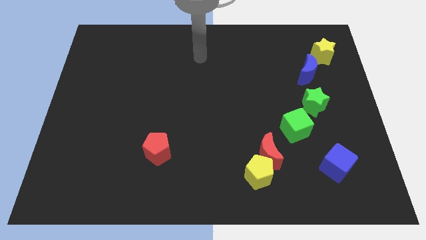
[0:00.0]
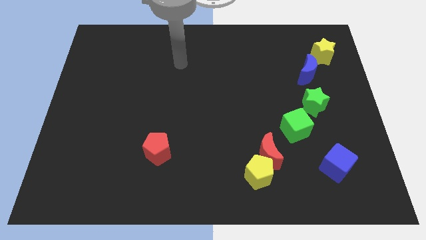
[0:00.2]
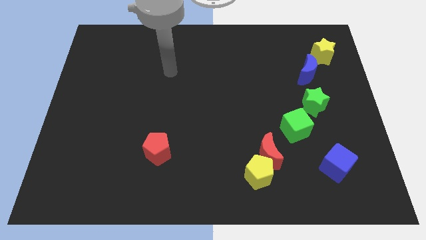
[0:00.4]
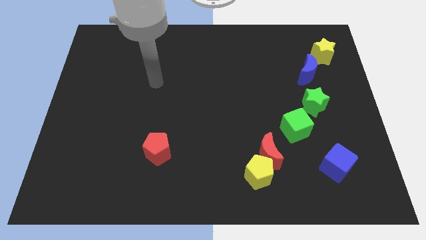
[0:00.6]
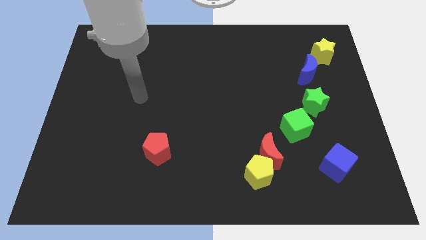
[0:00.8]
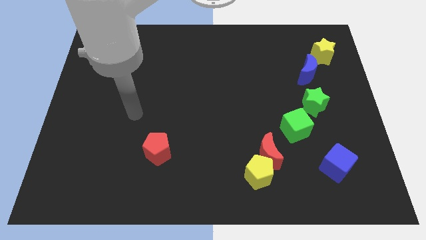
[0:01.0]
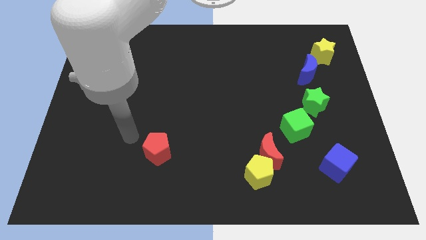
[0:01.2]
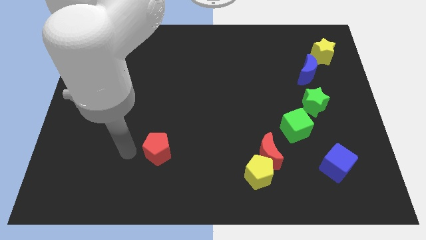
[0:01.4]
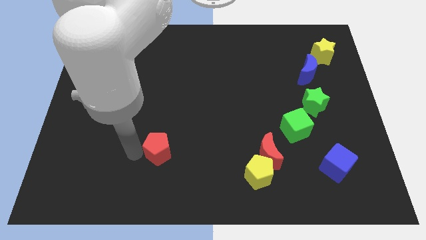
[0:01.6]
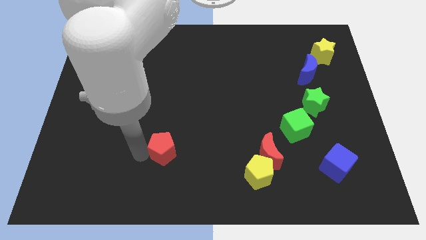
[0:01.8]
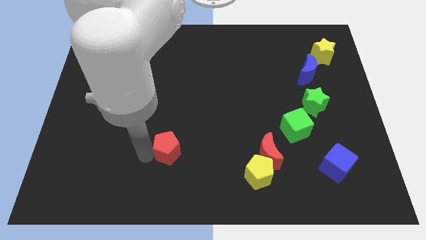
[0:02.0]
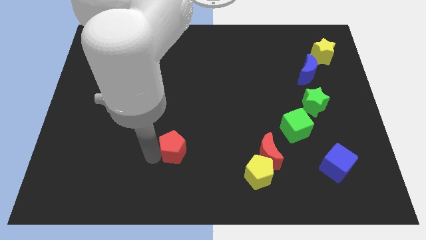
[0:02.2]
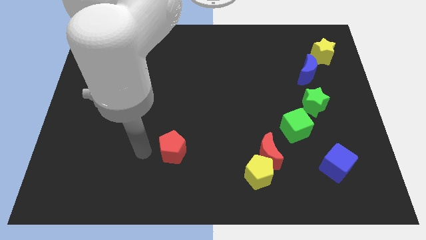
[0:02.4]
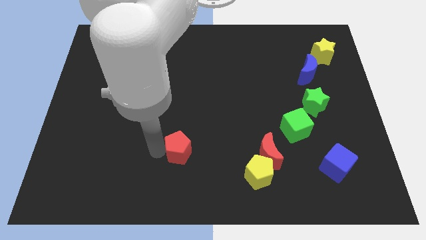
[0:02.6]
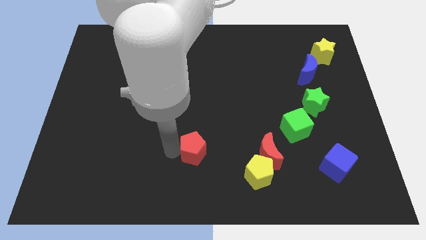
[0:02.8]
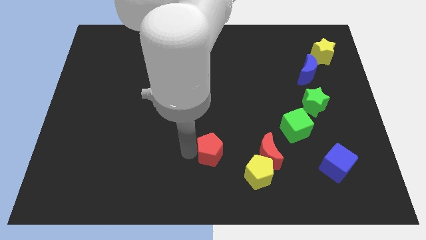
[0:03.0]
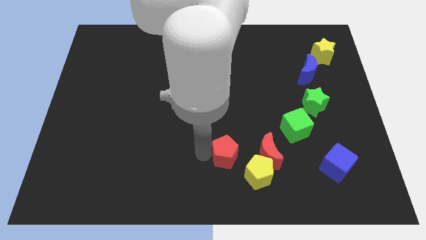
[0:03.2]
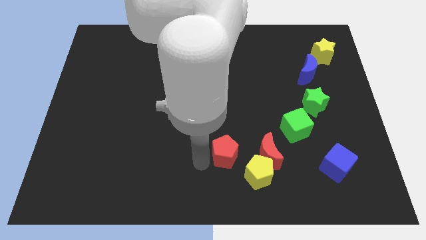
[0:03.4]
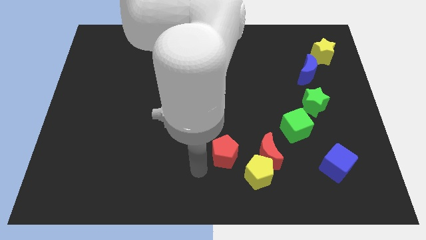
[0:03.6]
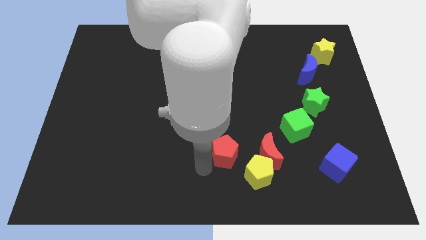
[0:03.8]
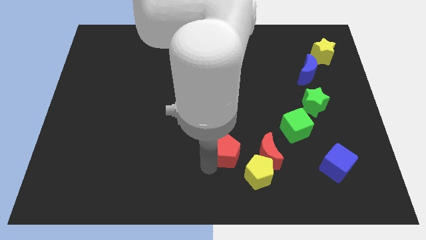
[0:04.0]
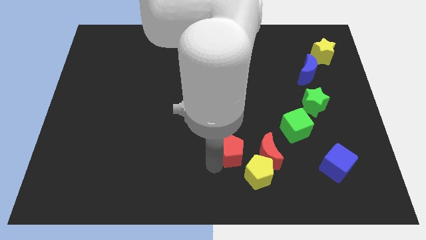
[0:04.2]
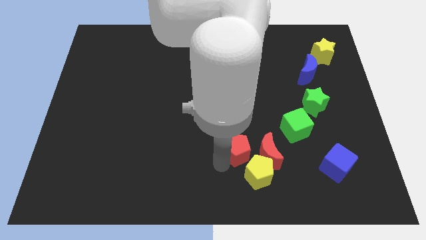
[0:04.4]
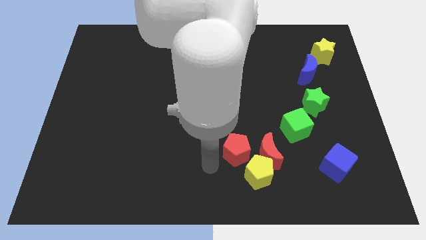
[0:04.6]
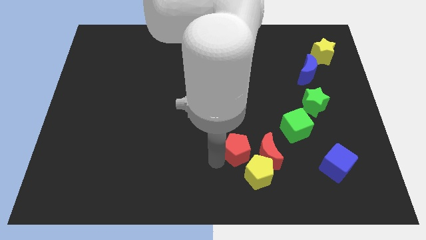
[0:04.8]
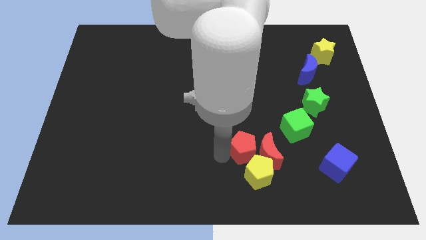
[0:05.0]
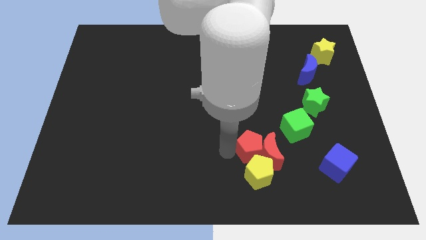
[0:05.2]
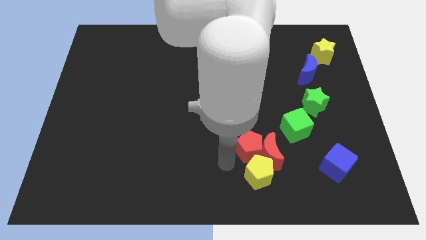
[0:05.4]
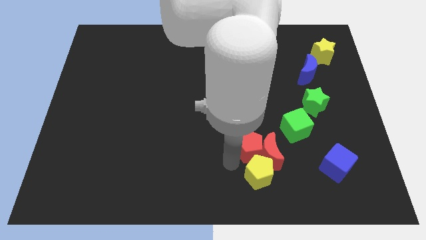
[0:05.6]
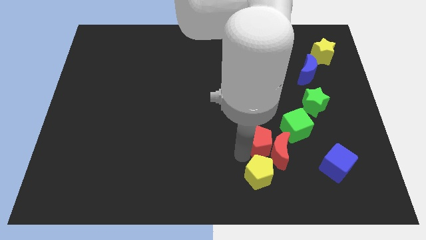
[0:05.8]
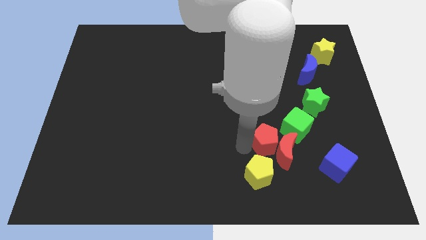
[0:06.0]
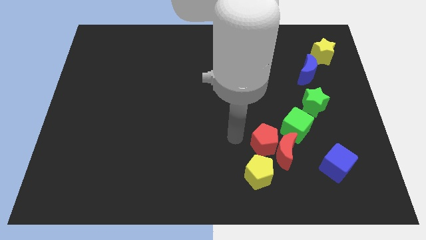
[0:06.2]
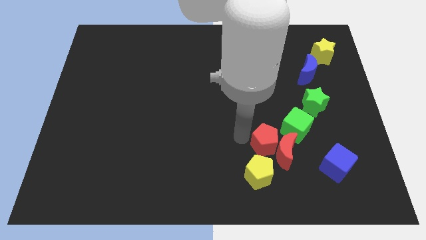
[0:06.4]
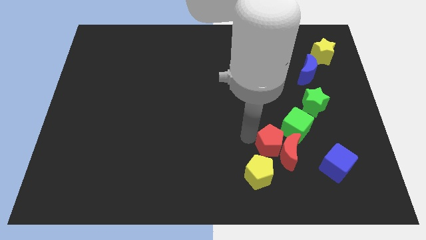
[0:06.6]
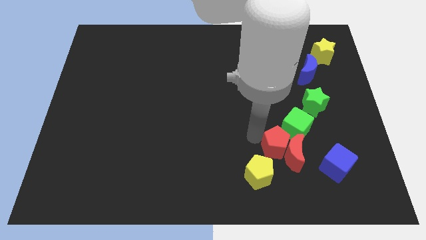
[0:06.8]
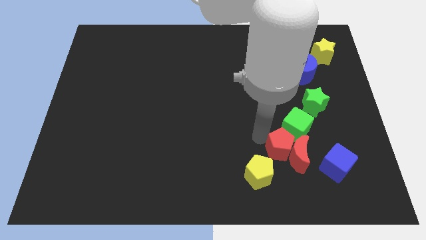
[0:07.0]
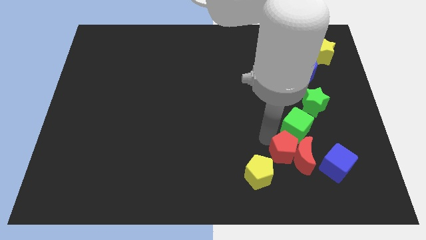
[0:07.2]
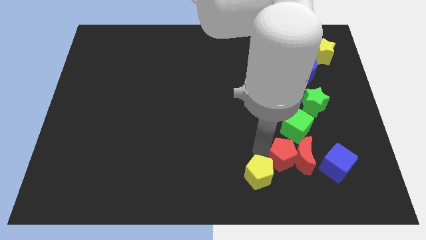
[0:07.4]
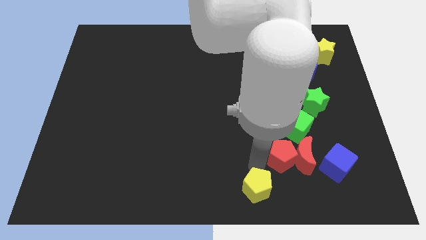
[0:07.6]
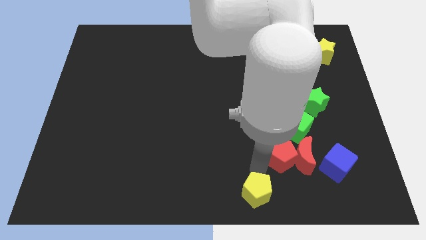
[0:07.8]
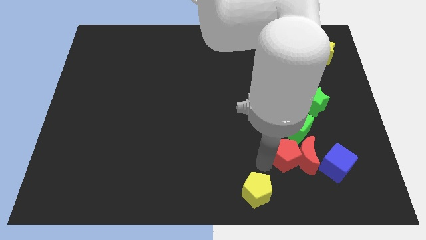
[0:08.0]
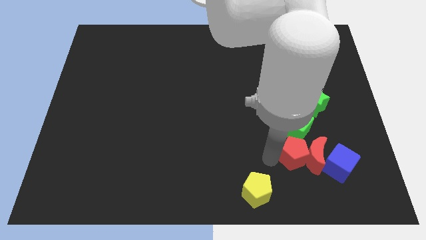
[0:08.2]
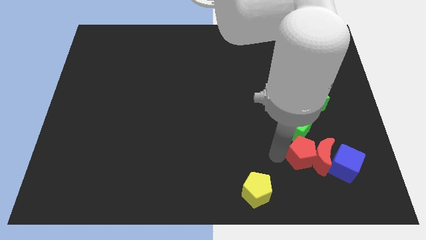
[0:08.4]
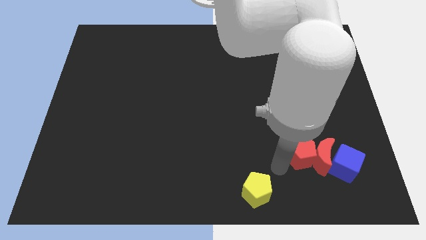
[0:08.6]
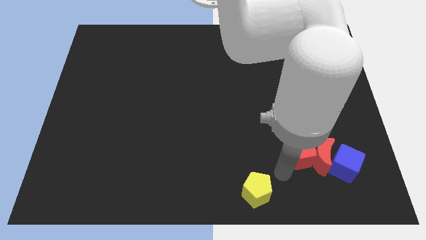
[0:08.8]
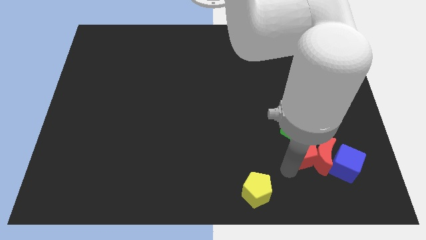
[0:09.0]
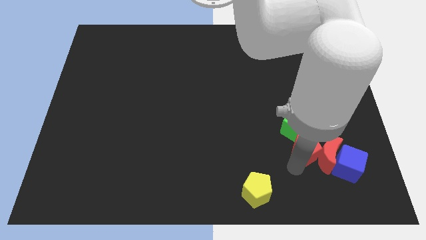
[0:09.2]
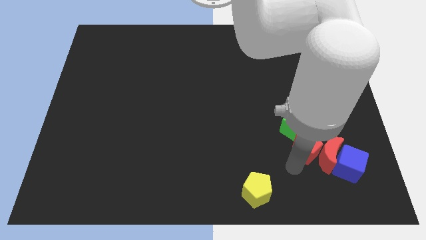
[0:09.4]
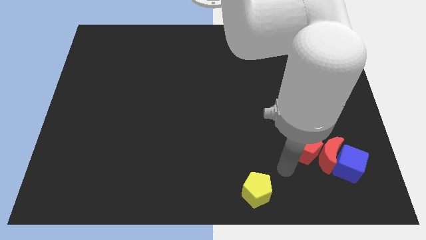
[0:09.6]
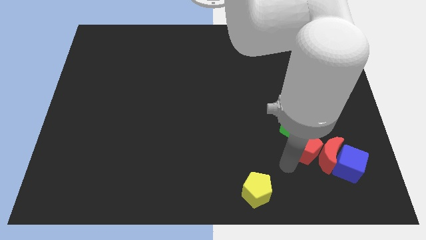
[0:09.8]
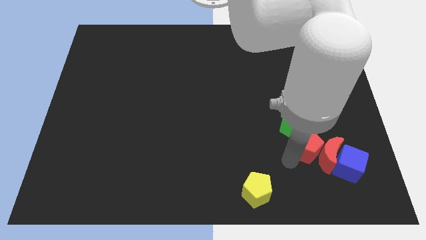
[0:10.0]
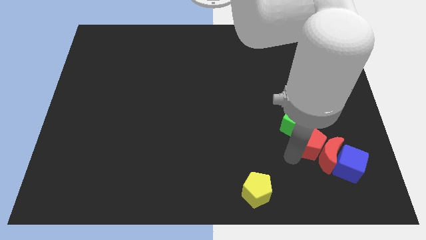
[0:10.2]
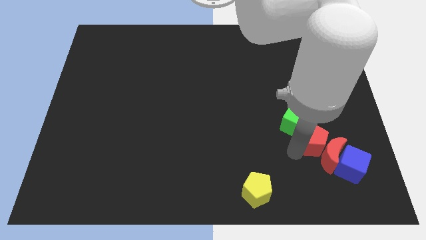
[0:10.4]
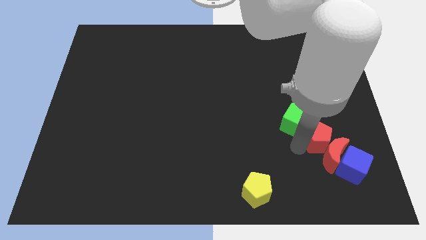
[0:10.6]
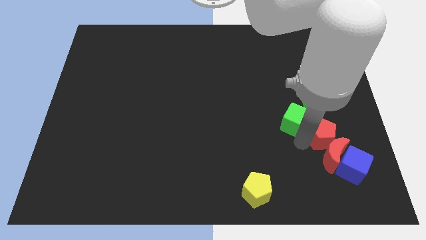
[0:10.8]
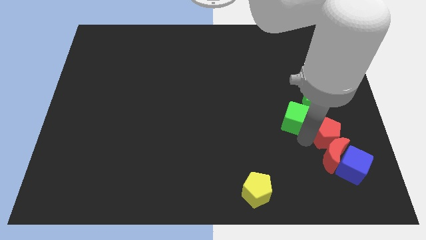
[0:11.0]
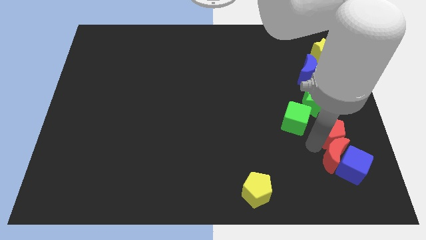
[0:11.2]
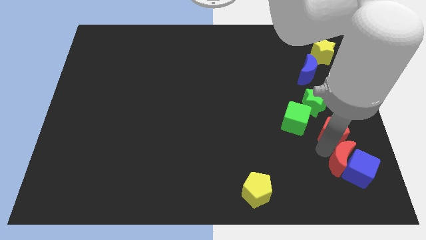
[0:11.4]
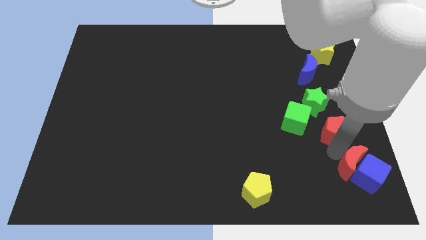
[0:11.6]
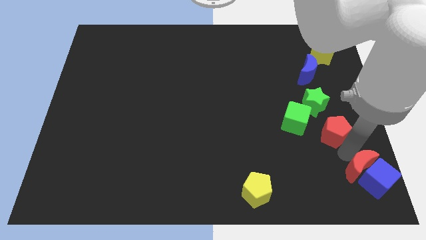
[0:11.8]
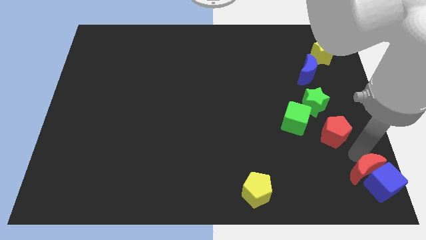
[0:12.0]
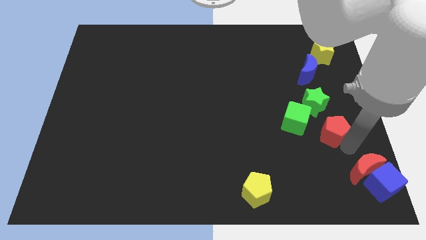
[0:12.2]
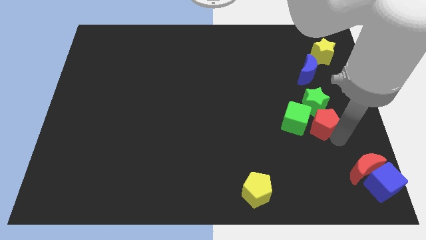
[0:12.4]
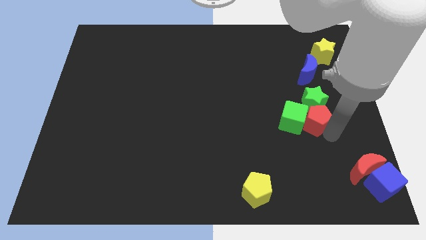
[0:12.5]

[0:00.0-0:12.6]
put the red pentagon to the bottom side of the blue moon

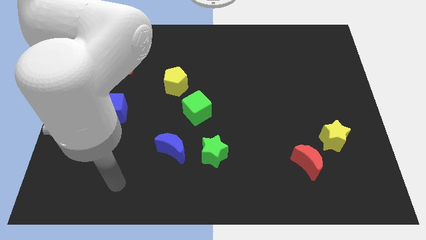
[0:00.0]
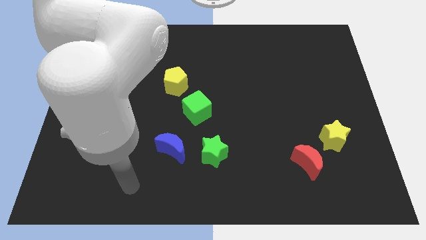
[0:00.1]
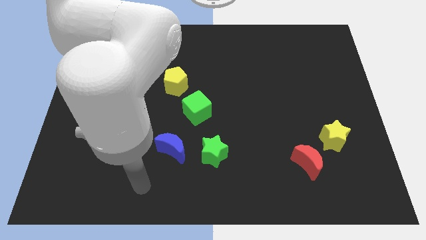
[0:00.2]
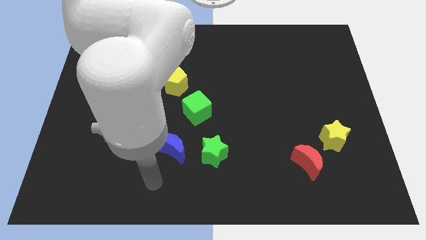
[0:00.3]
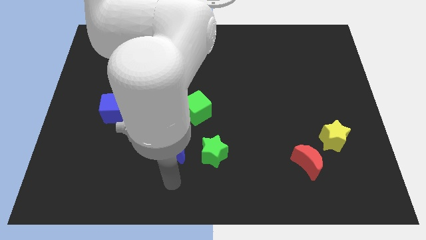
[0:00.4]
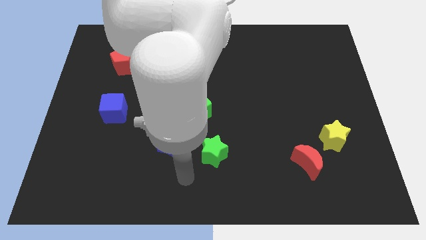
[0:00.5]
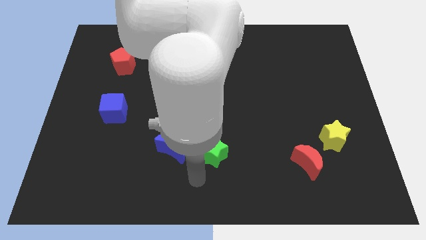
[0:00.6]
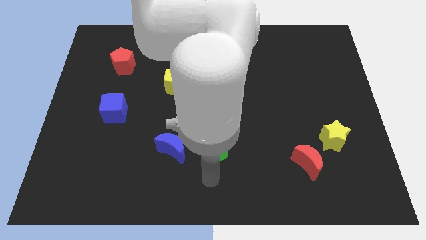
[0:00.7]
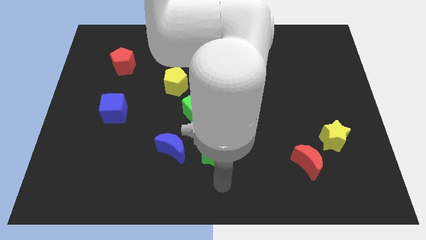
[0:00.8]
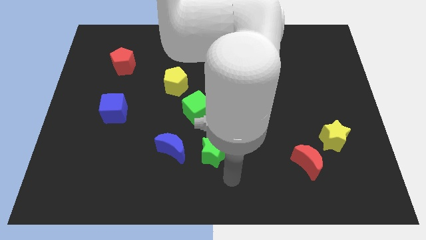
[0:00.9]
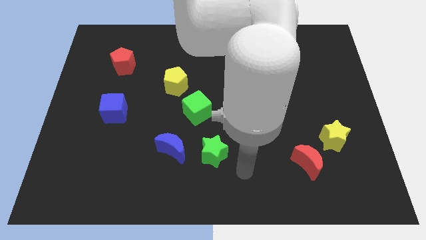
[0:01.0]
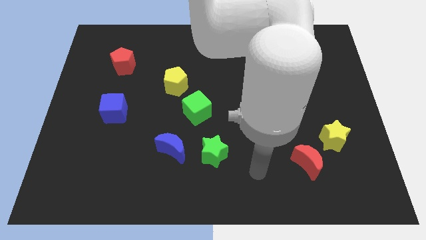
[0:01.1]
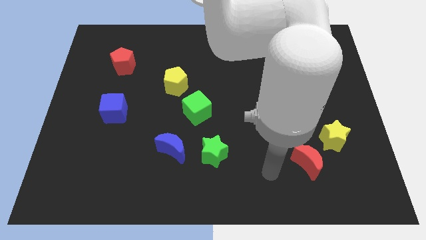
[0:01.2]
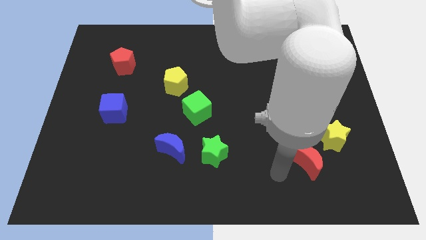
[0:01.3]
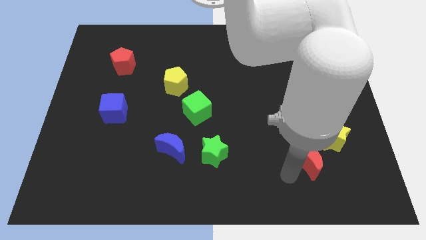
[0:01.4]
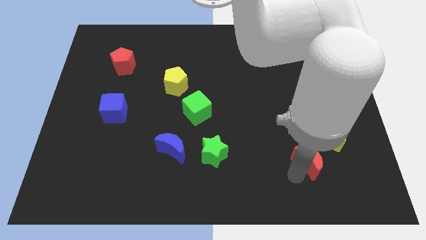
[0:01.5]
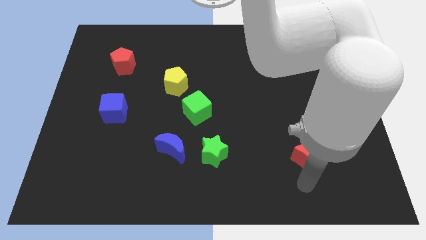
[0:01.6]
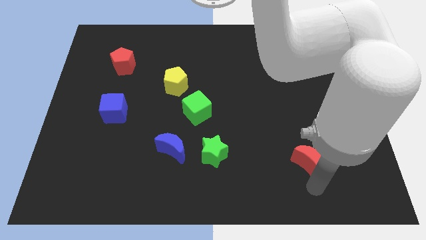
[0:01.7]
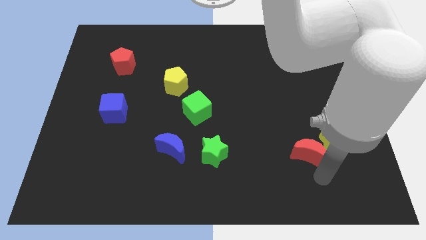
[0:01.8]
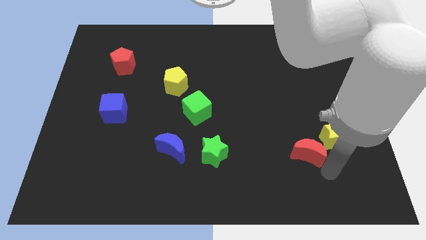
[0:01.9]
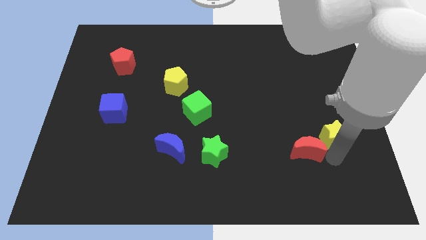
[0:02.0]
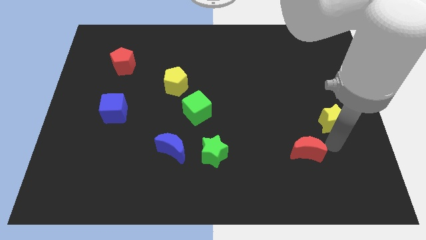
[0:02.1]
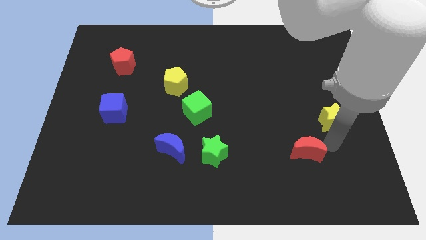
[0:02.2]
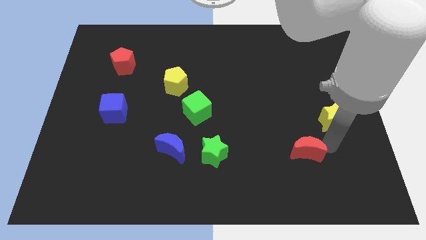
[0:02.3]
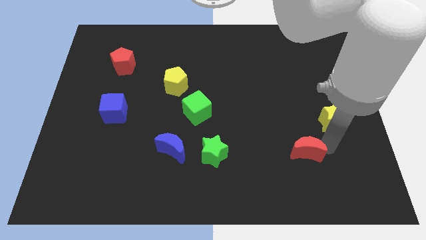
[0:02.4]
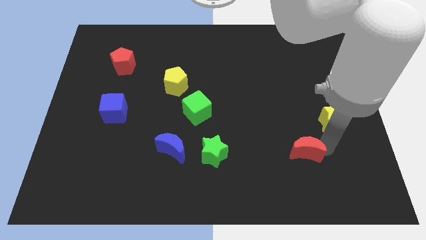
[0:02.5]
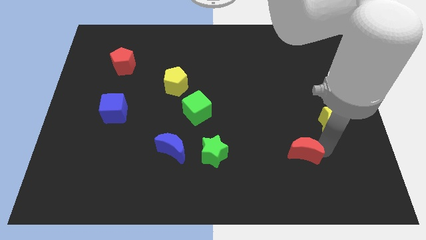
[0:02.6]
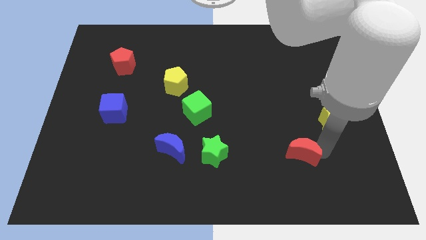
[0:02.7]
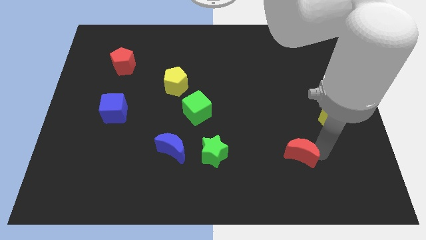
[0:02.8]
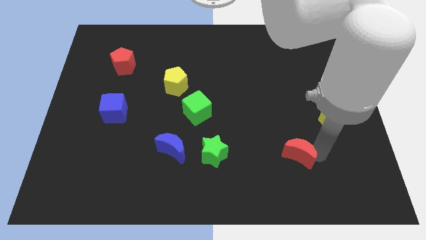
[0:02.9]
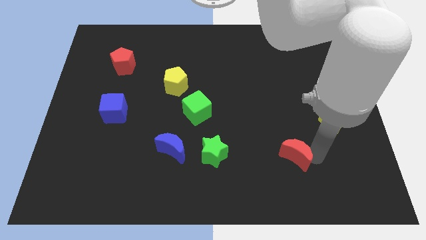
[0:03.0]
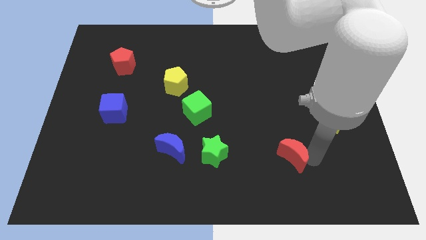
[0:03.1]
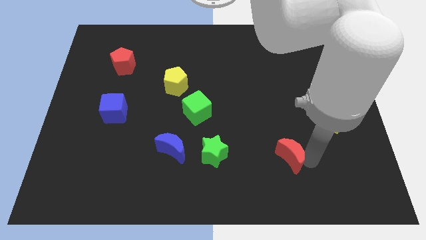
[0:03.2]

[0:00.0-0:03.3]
push the red moon to the right of the green star
